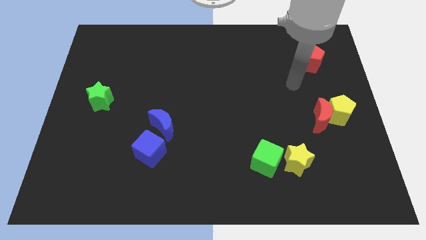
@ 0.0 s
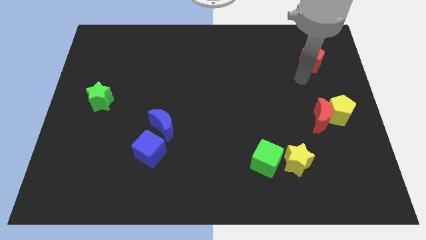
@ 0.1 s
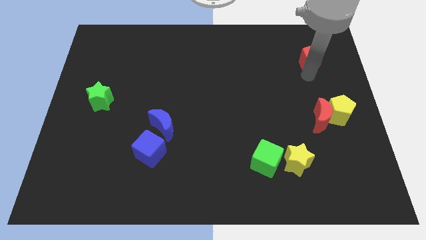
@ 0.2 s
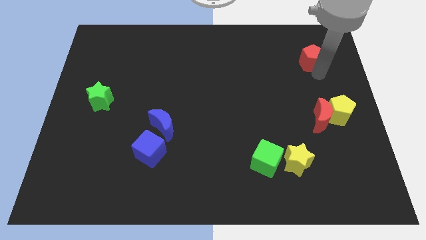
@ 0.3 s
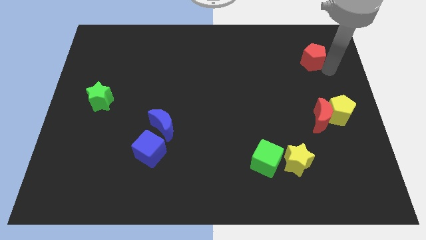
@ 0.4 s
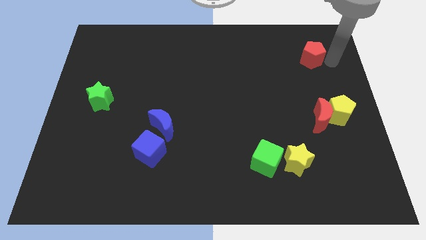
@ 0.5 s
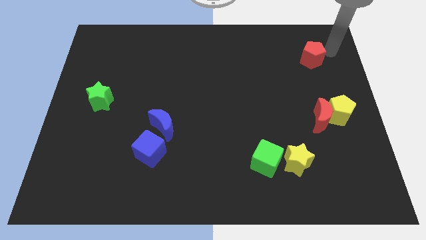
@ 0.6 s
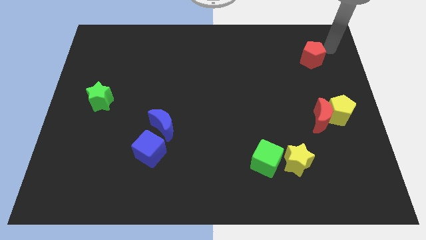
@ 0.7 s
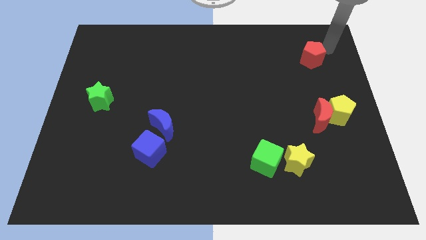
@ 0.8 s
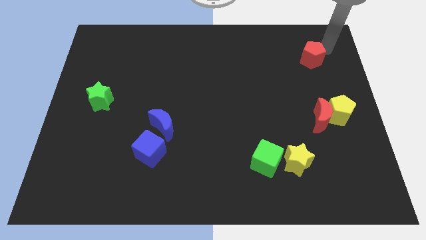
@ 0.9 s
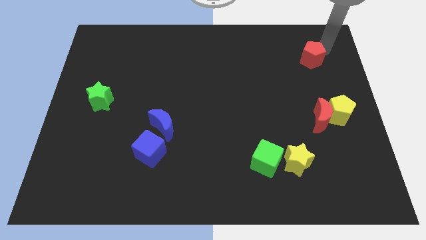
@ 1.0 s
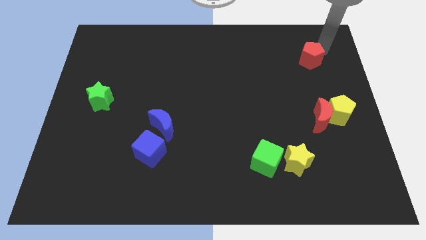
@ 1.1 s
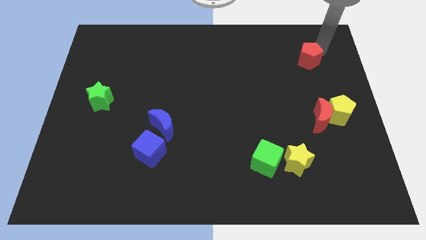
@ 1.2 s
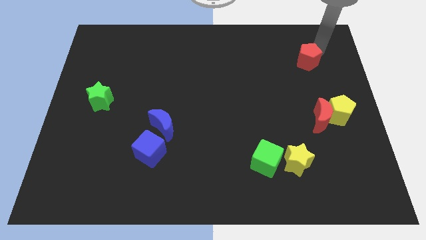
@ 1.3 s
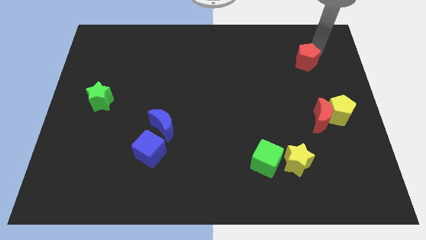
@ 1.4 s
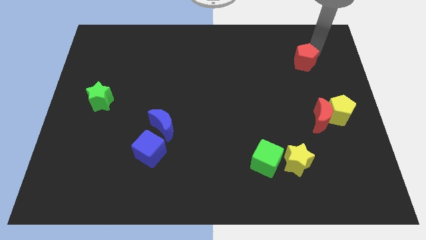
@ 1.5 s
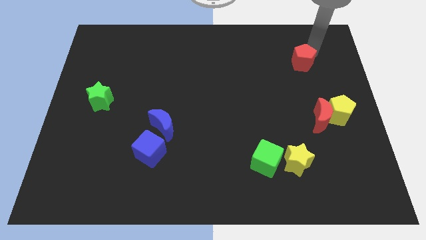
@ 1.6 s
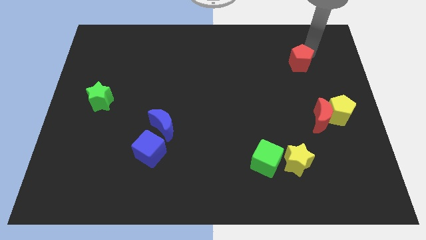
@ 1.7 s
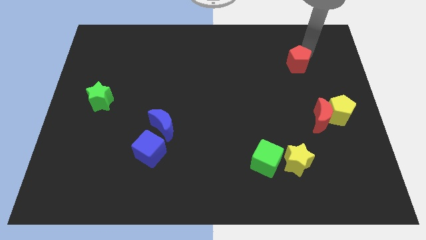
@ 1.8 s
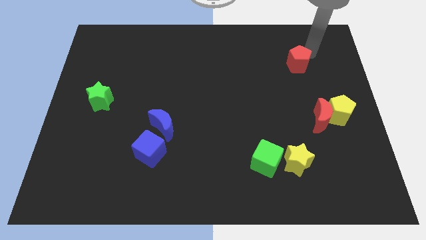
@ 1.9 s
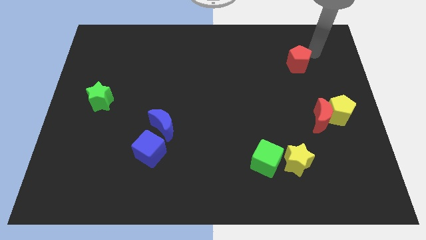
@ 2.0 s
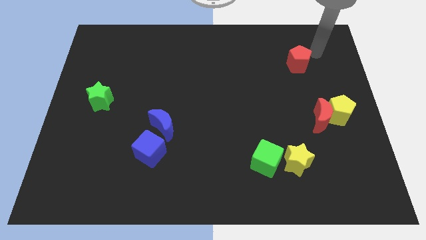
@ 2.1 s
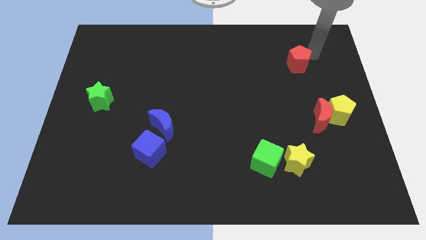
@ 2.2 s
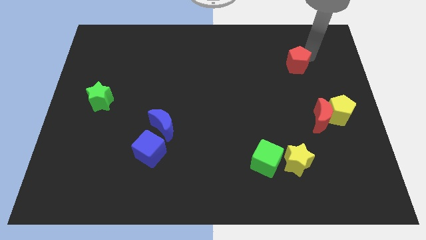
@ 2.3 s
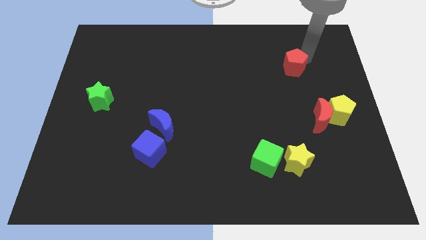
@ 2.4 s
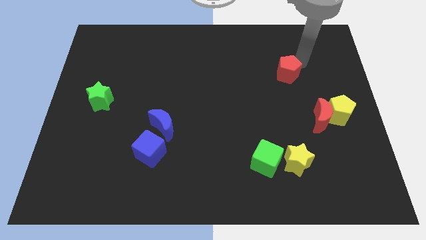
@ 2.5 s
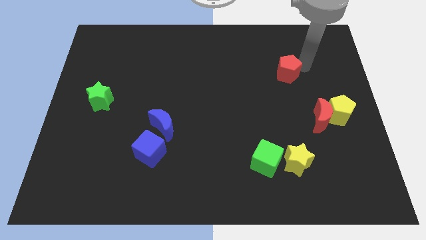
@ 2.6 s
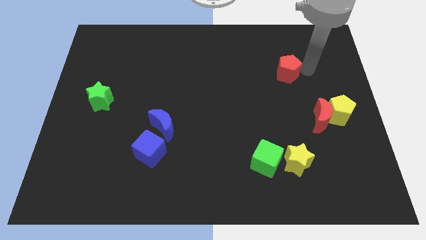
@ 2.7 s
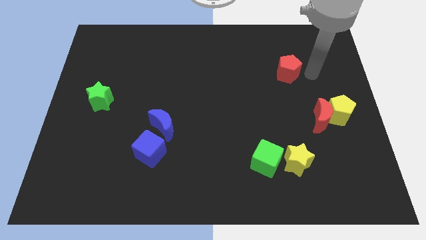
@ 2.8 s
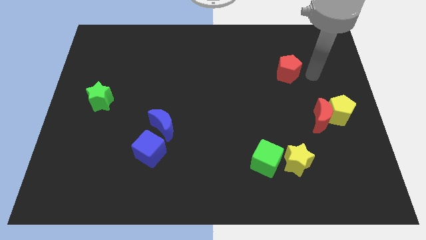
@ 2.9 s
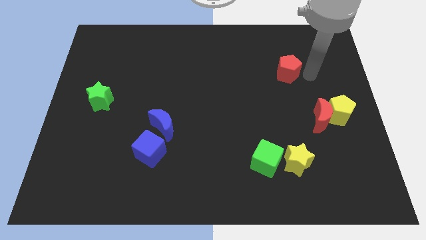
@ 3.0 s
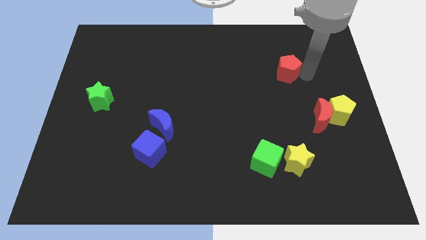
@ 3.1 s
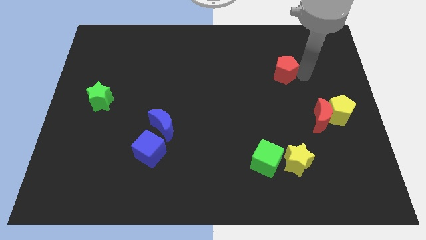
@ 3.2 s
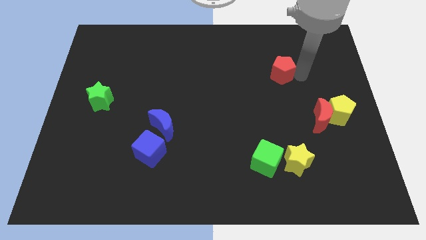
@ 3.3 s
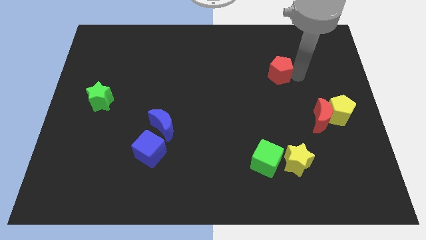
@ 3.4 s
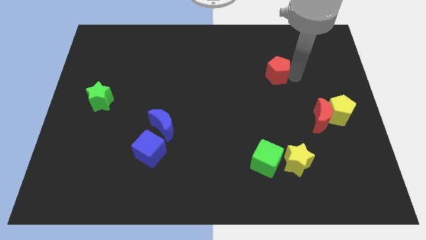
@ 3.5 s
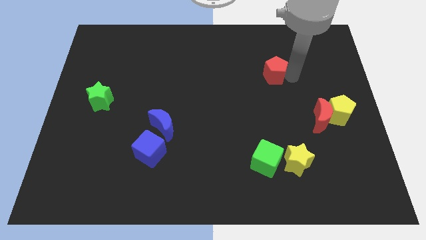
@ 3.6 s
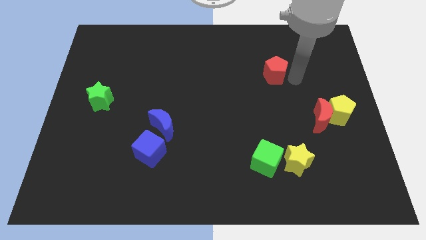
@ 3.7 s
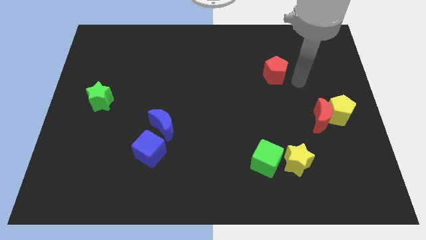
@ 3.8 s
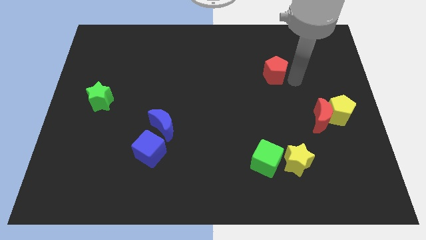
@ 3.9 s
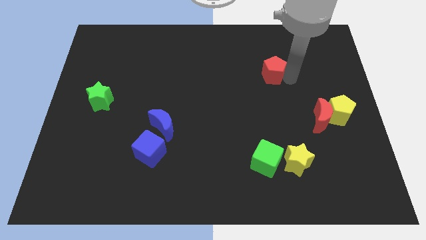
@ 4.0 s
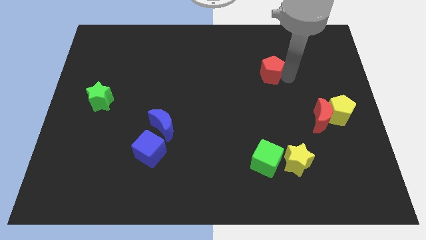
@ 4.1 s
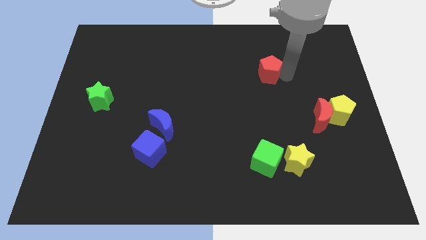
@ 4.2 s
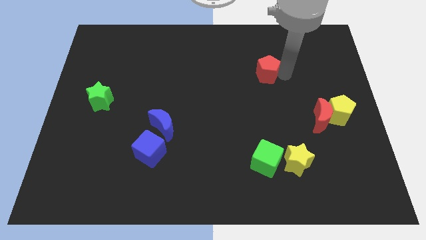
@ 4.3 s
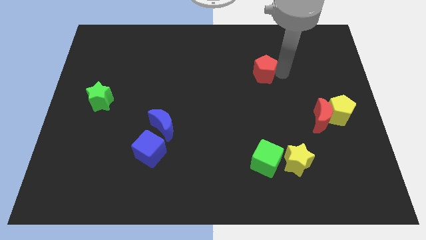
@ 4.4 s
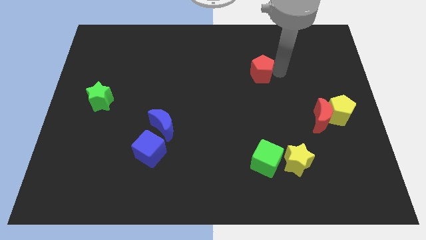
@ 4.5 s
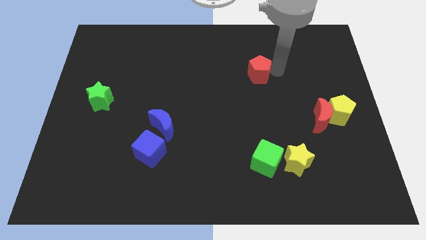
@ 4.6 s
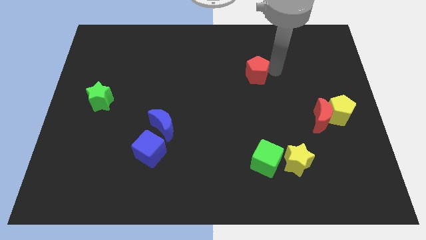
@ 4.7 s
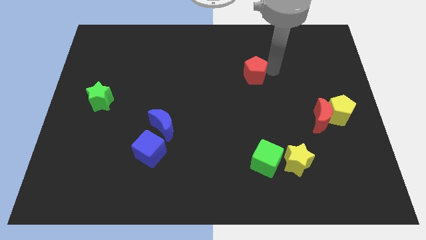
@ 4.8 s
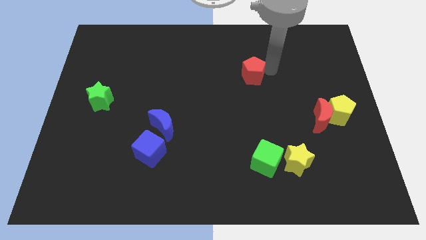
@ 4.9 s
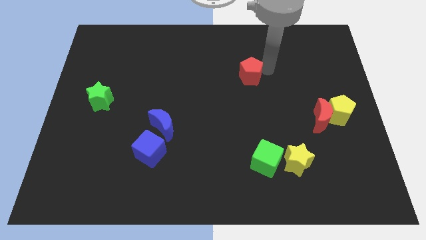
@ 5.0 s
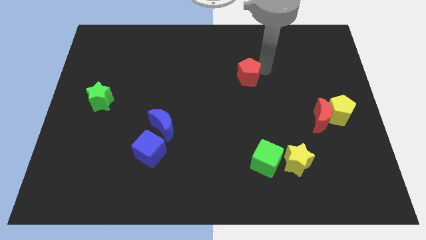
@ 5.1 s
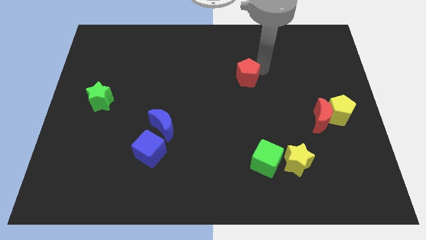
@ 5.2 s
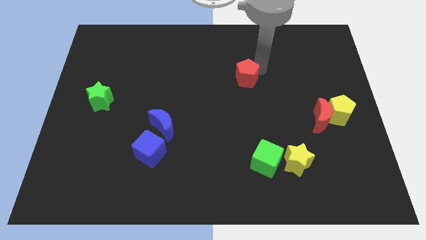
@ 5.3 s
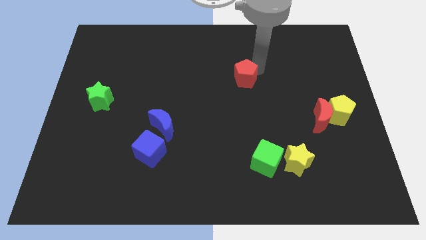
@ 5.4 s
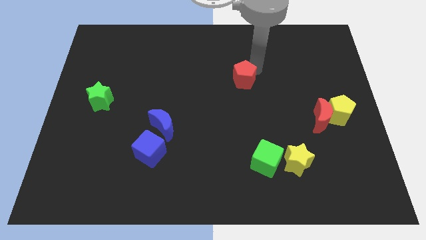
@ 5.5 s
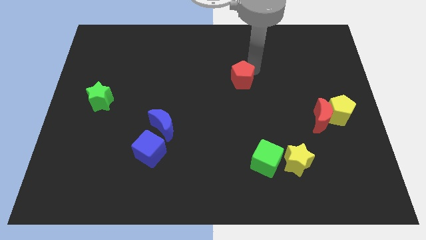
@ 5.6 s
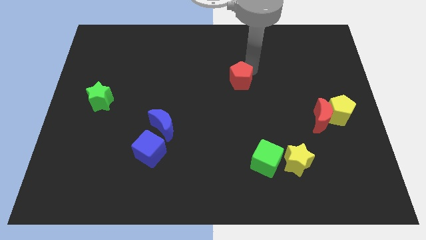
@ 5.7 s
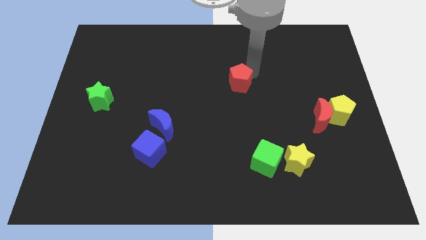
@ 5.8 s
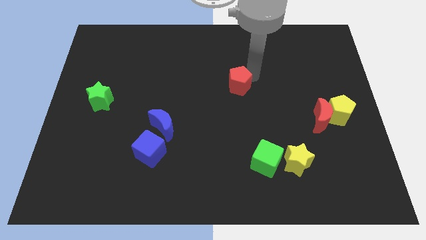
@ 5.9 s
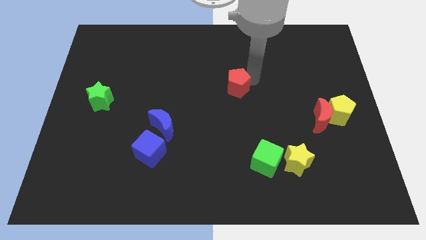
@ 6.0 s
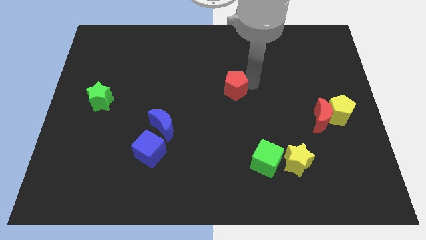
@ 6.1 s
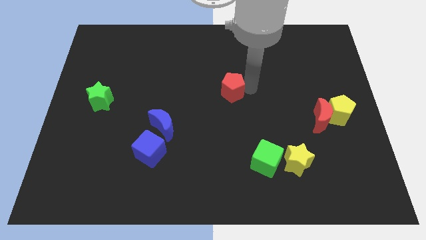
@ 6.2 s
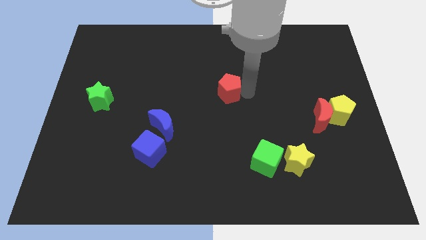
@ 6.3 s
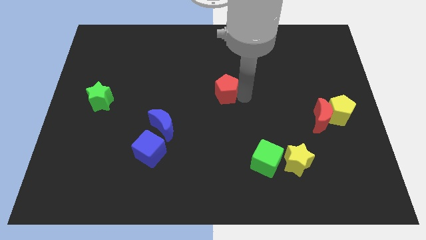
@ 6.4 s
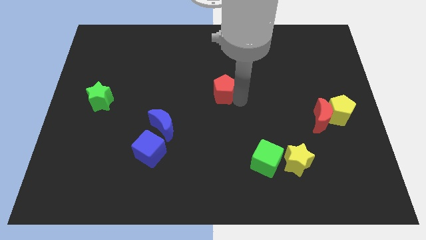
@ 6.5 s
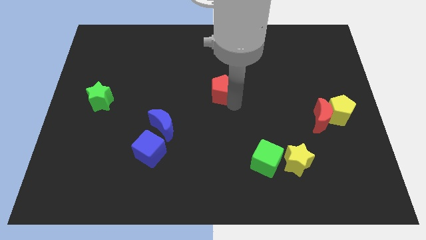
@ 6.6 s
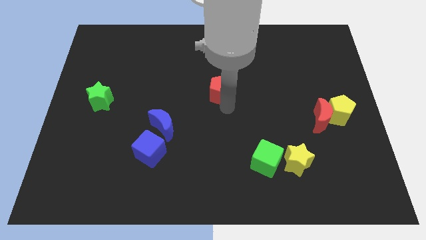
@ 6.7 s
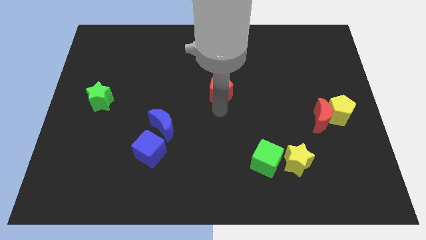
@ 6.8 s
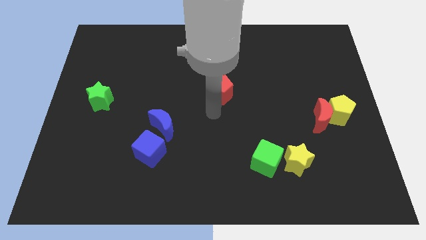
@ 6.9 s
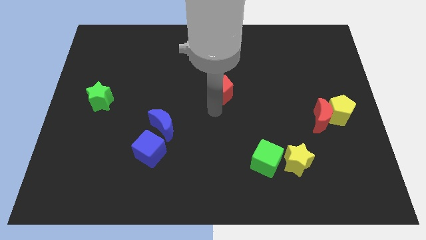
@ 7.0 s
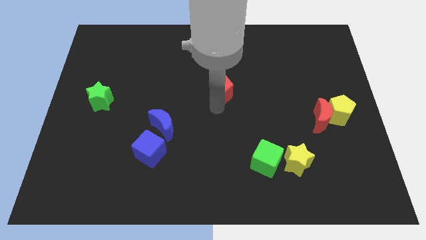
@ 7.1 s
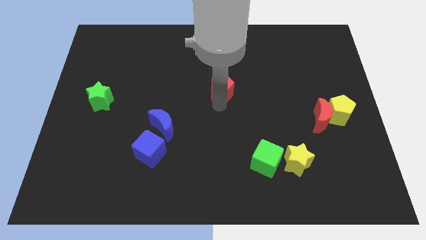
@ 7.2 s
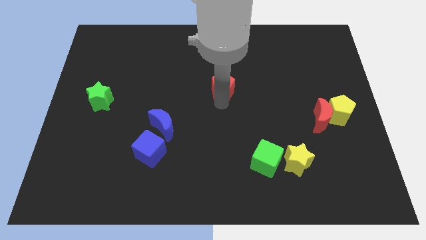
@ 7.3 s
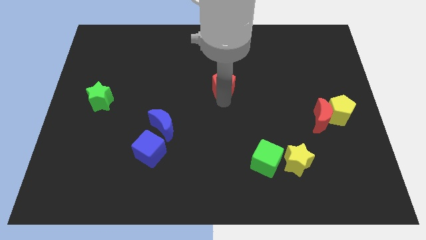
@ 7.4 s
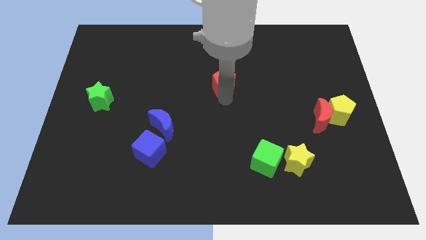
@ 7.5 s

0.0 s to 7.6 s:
slide the red pentagon to the left

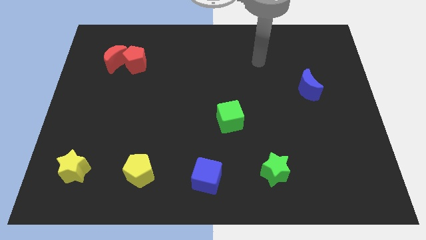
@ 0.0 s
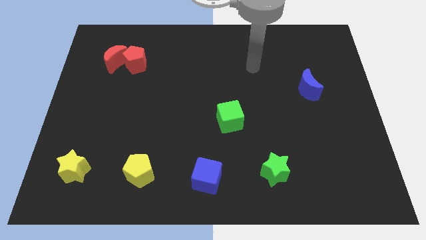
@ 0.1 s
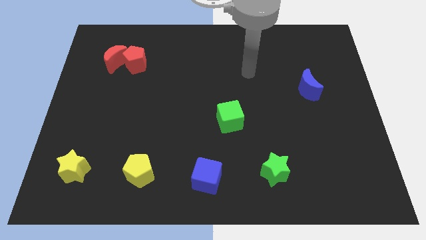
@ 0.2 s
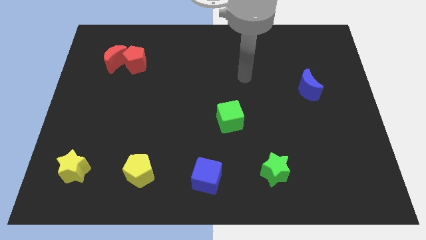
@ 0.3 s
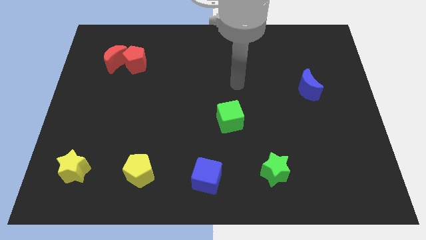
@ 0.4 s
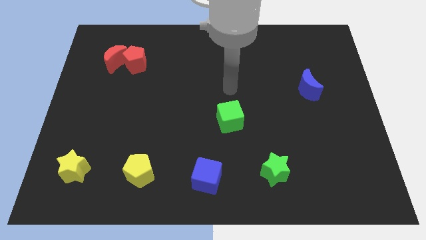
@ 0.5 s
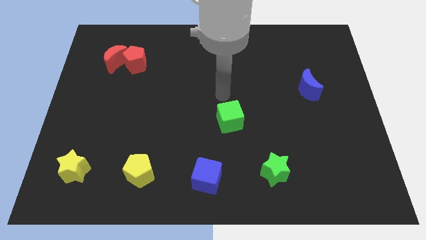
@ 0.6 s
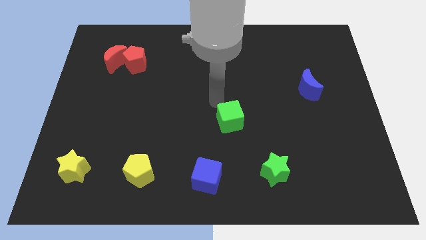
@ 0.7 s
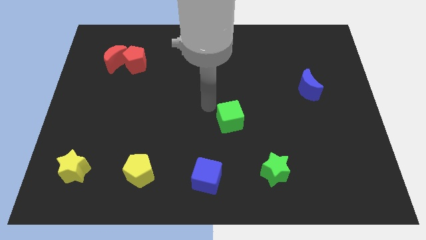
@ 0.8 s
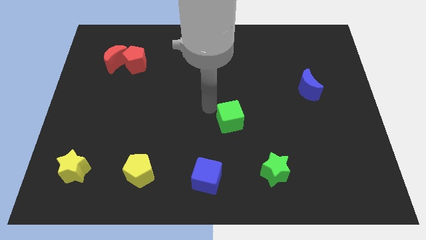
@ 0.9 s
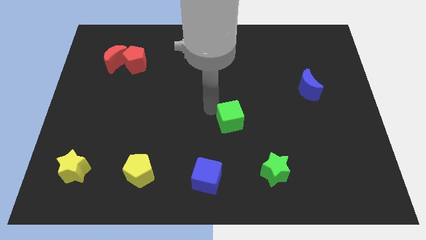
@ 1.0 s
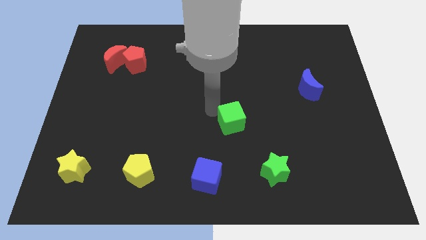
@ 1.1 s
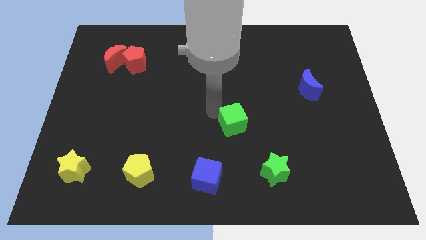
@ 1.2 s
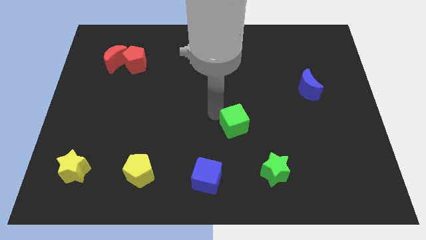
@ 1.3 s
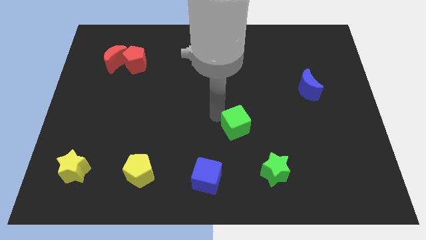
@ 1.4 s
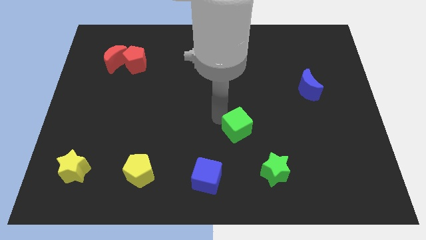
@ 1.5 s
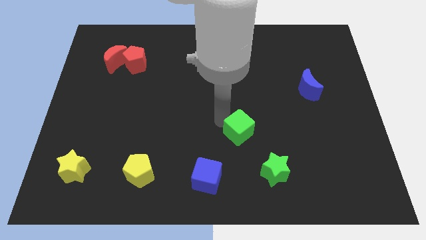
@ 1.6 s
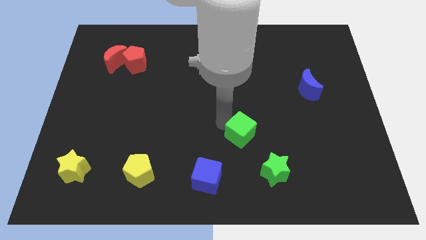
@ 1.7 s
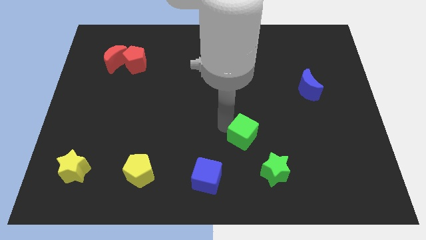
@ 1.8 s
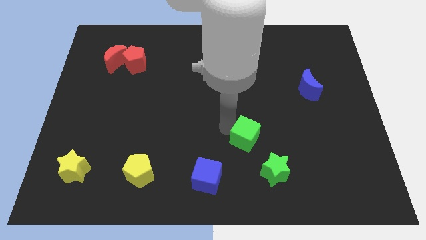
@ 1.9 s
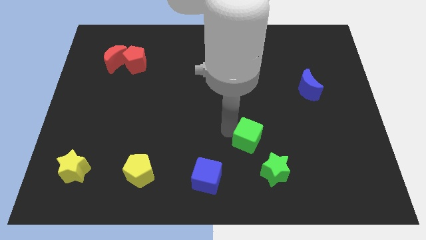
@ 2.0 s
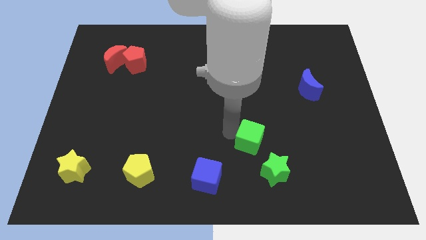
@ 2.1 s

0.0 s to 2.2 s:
push the green cube slightly diagonally downwards and right
